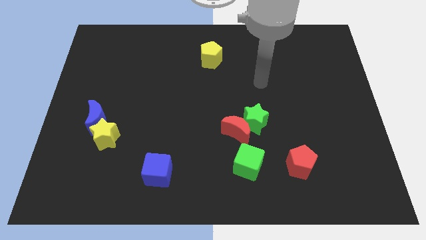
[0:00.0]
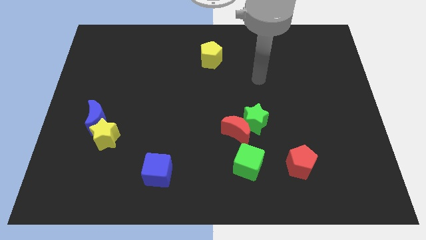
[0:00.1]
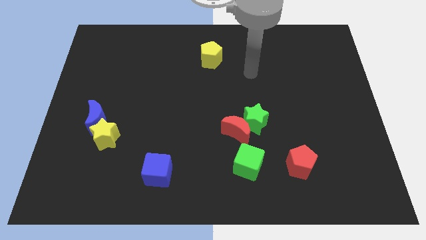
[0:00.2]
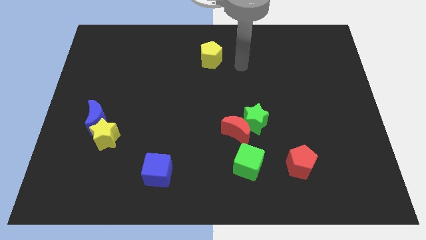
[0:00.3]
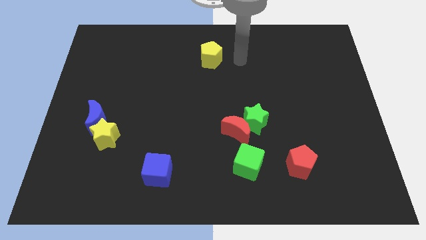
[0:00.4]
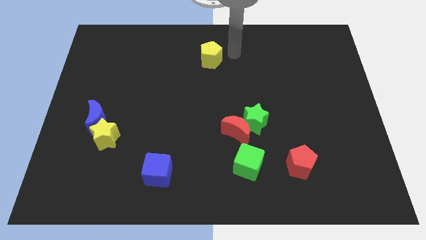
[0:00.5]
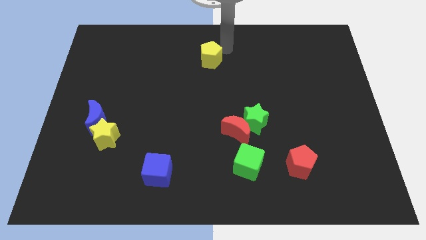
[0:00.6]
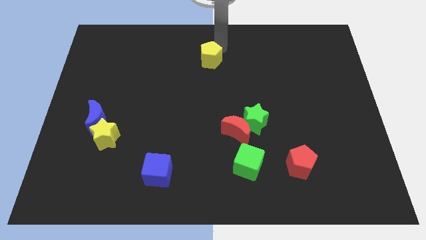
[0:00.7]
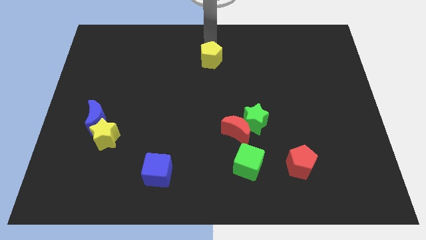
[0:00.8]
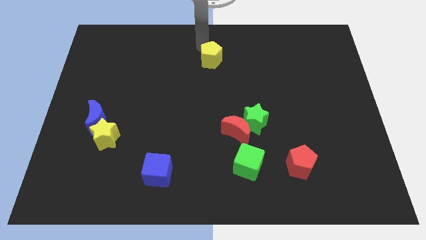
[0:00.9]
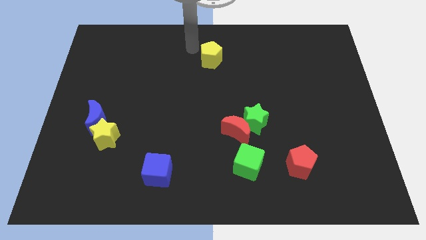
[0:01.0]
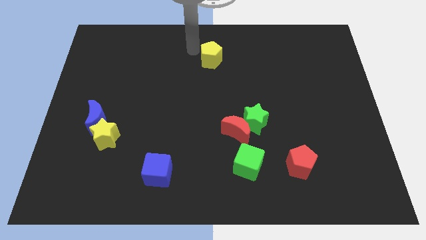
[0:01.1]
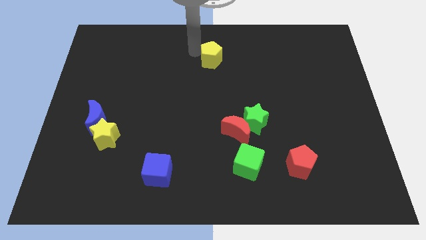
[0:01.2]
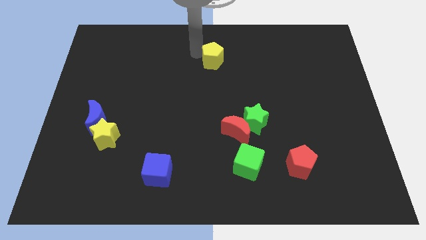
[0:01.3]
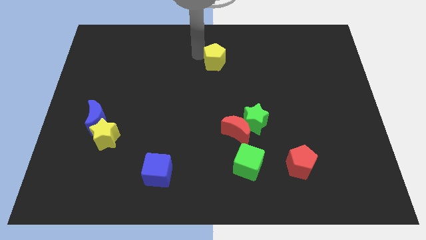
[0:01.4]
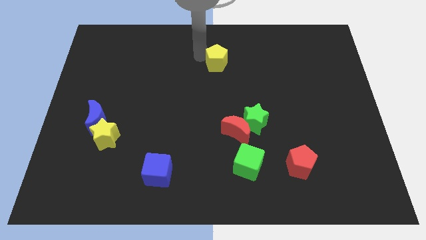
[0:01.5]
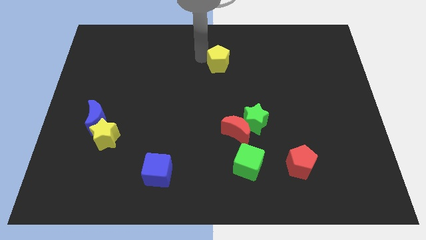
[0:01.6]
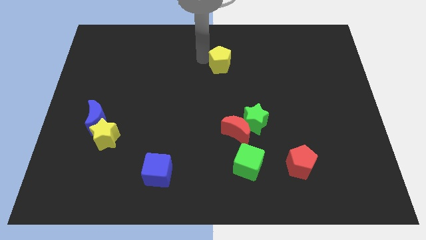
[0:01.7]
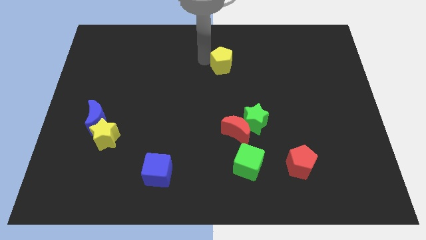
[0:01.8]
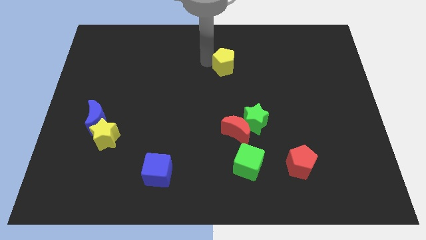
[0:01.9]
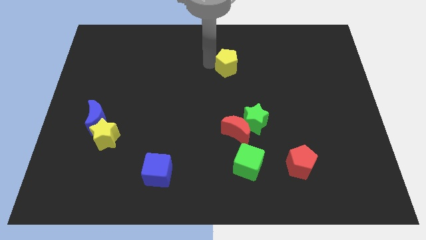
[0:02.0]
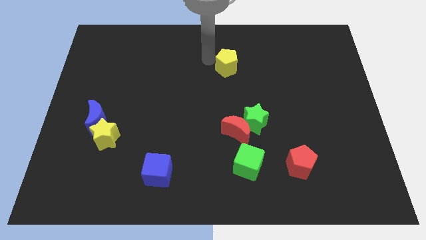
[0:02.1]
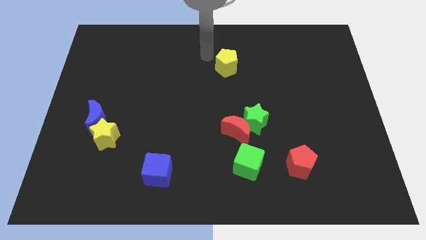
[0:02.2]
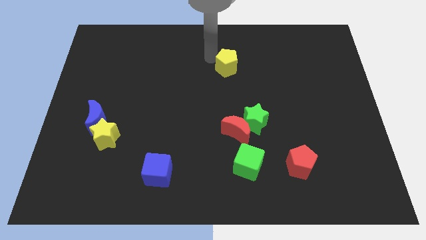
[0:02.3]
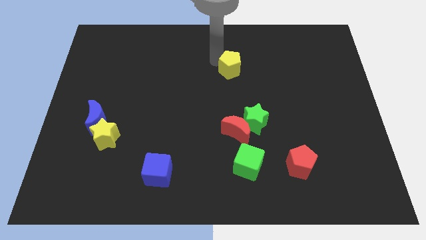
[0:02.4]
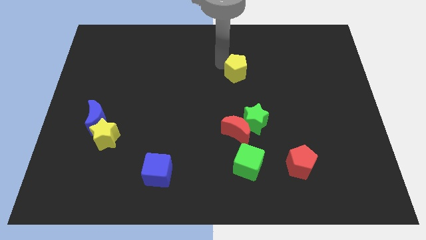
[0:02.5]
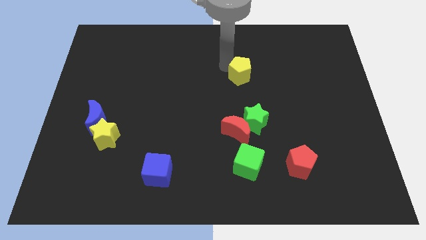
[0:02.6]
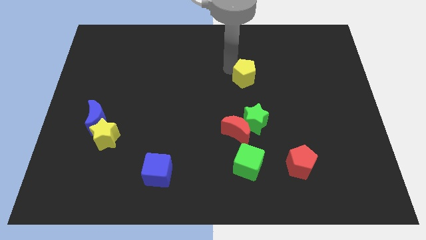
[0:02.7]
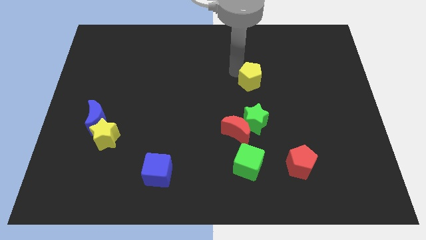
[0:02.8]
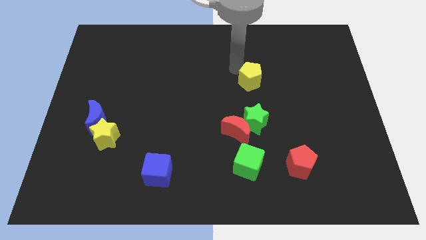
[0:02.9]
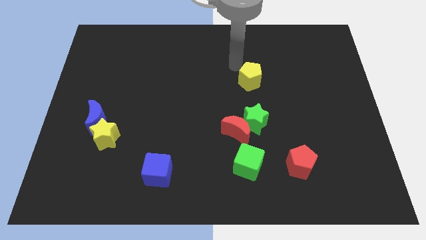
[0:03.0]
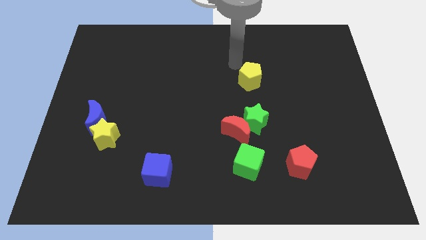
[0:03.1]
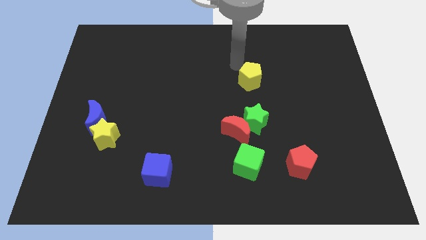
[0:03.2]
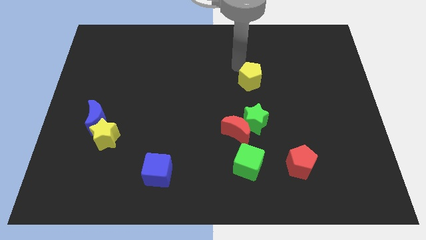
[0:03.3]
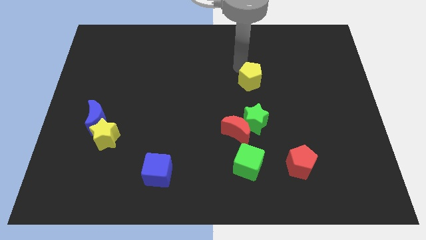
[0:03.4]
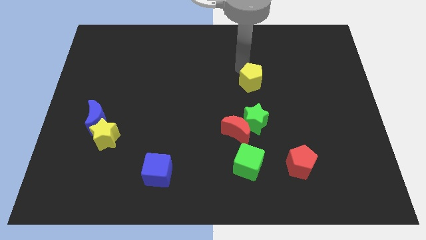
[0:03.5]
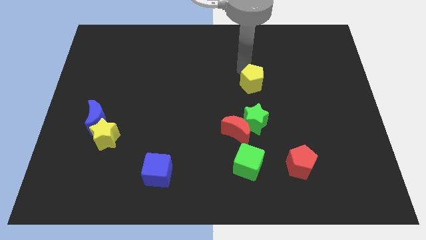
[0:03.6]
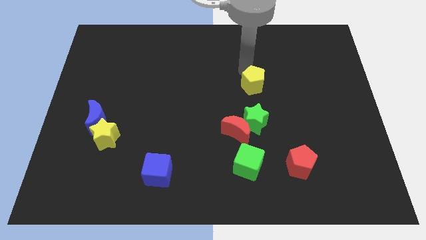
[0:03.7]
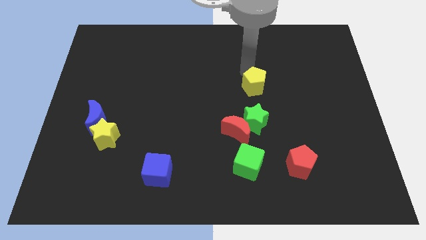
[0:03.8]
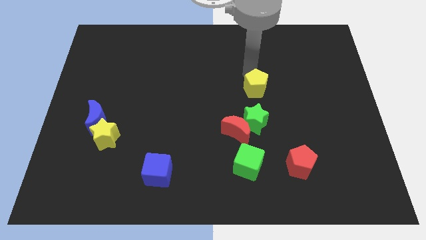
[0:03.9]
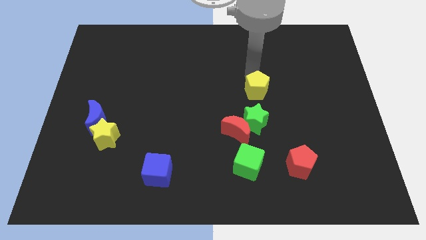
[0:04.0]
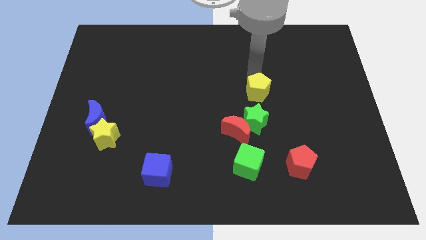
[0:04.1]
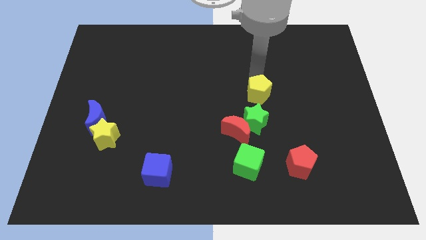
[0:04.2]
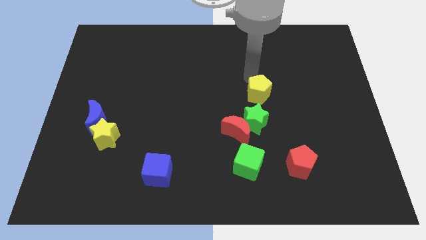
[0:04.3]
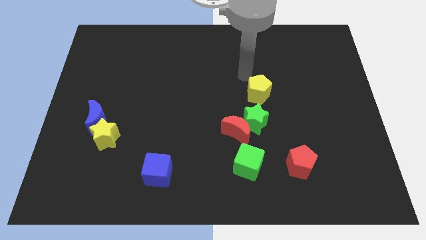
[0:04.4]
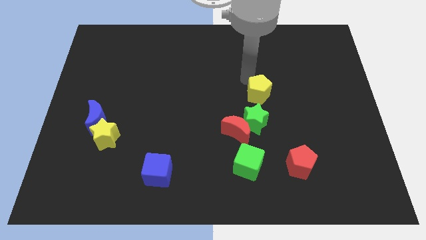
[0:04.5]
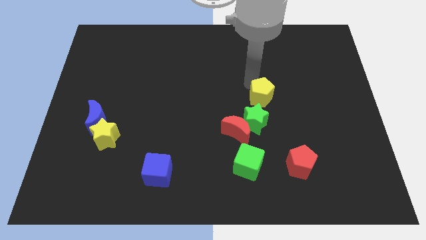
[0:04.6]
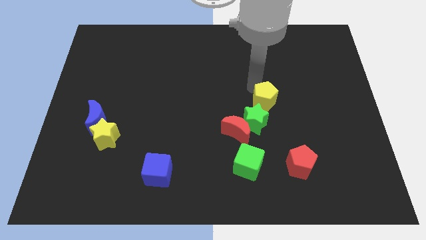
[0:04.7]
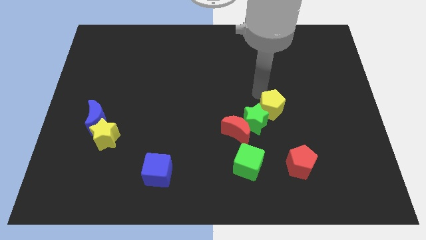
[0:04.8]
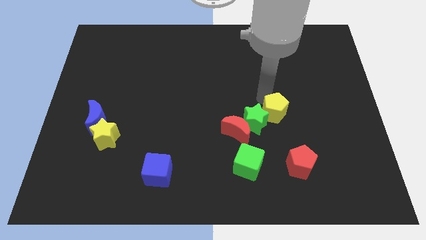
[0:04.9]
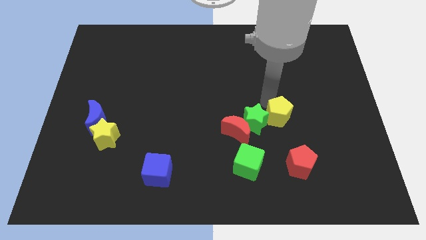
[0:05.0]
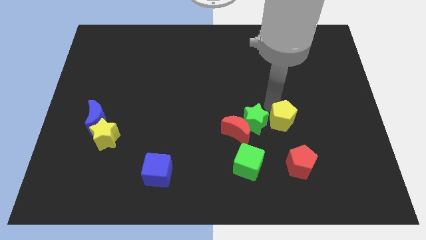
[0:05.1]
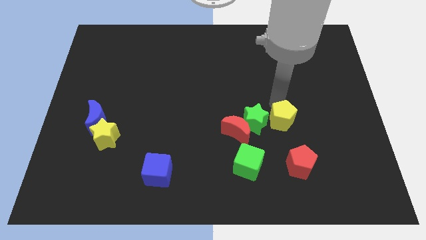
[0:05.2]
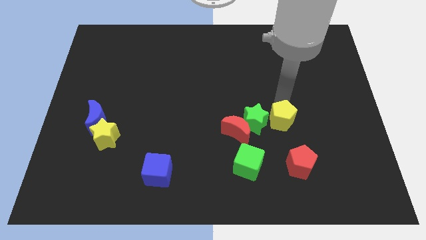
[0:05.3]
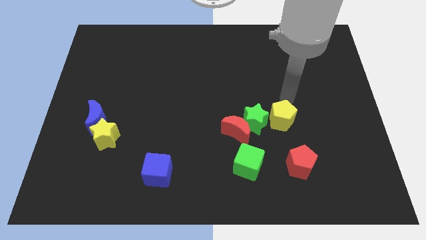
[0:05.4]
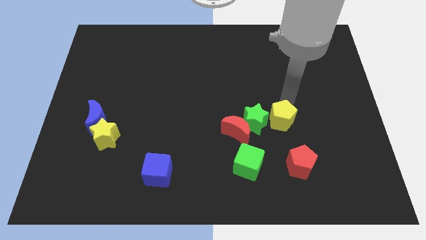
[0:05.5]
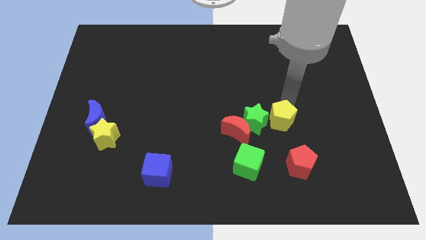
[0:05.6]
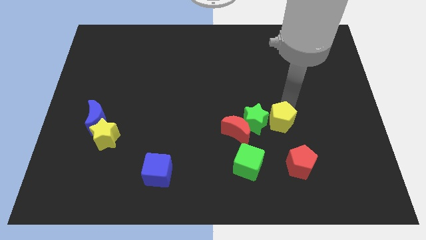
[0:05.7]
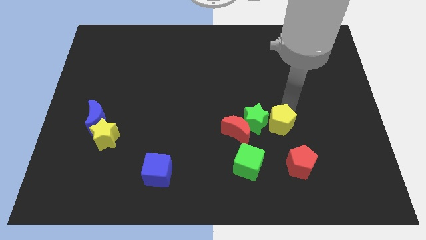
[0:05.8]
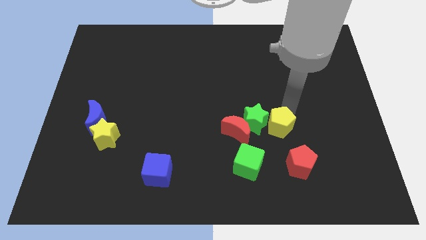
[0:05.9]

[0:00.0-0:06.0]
push the yellow pentagon diagonally up and to the left of the red pentagon
